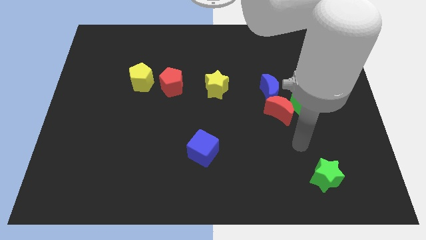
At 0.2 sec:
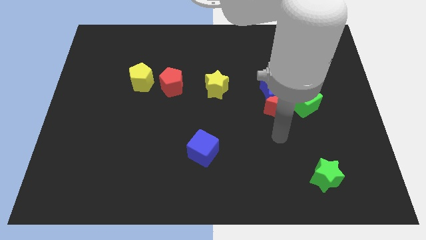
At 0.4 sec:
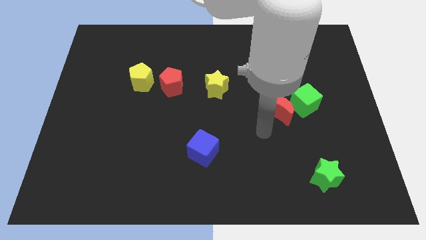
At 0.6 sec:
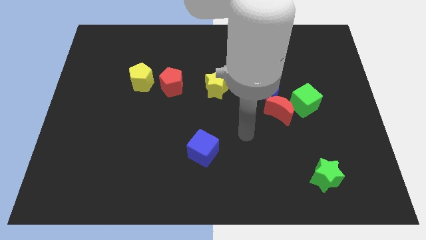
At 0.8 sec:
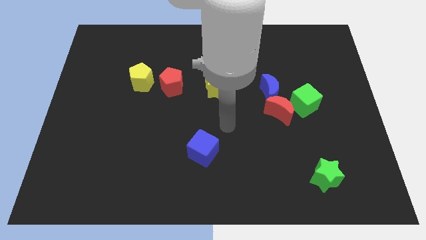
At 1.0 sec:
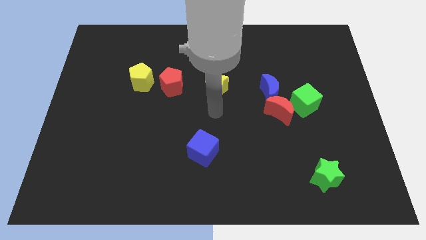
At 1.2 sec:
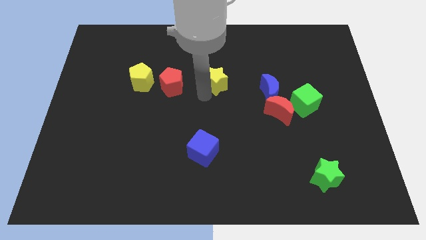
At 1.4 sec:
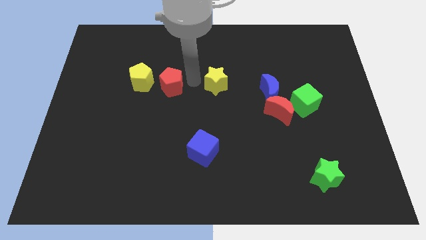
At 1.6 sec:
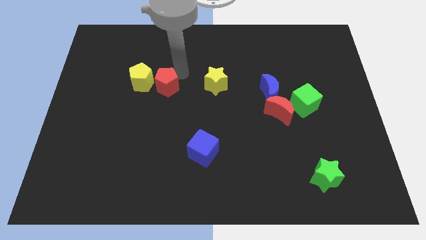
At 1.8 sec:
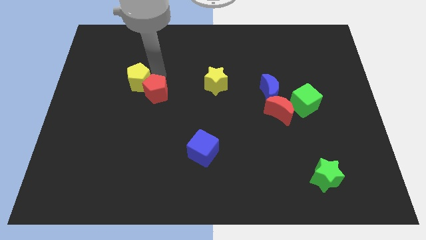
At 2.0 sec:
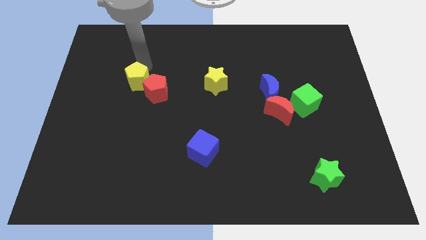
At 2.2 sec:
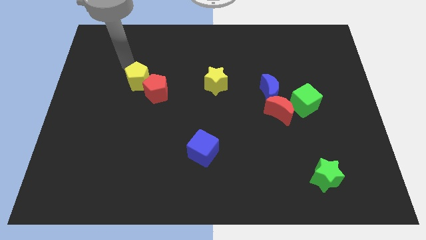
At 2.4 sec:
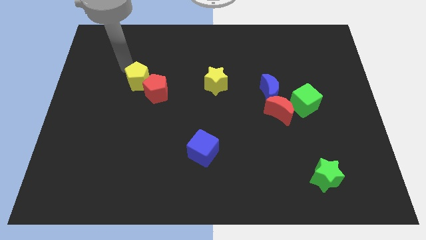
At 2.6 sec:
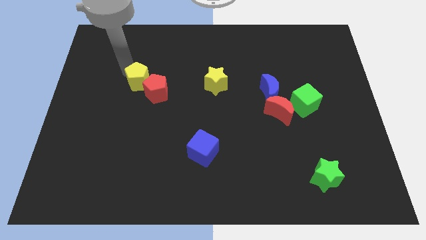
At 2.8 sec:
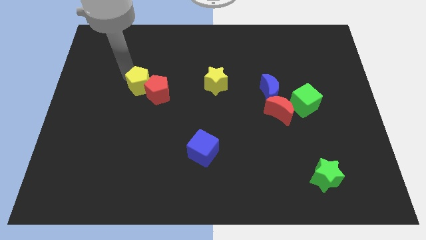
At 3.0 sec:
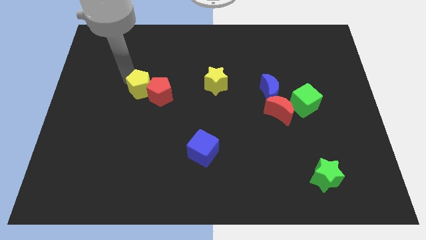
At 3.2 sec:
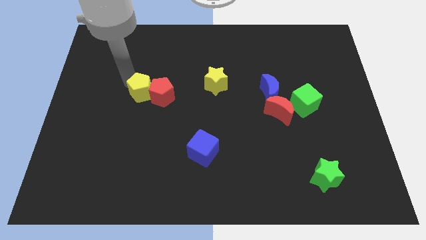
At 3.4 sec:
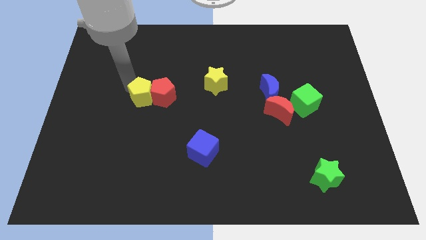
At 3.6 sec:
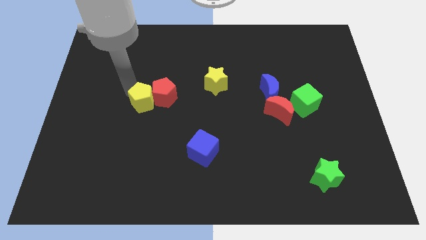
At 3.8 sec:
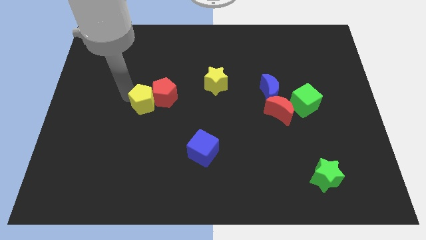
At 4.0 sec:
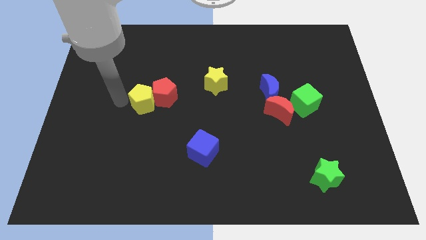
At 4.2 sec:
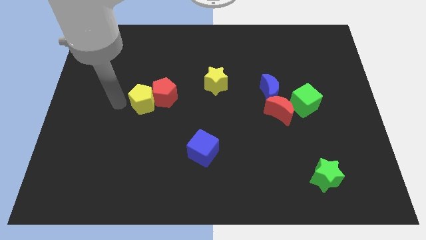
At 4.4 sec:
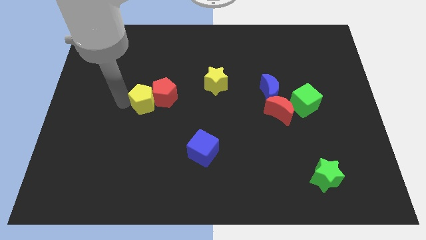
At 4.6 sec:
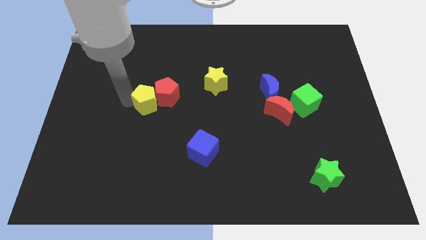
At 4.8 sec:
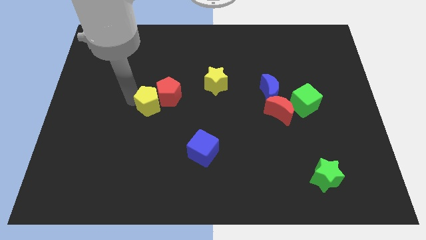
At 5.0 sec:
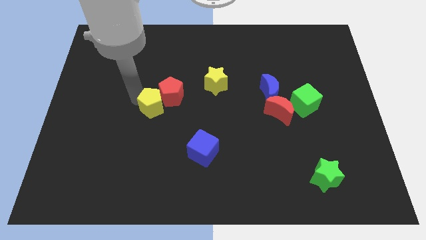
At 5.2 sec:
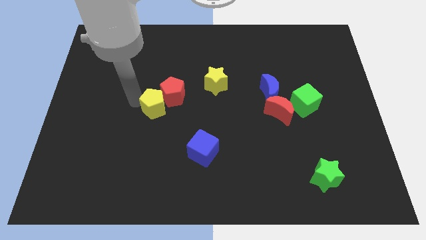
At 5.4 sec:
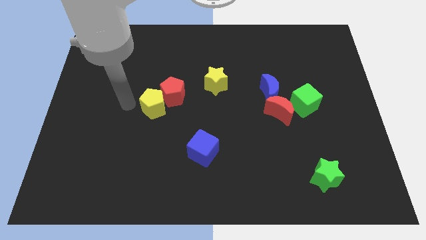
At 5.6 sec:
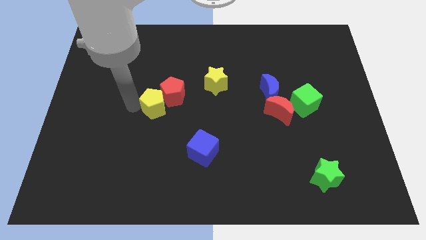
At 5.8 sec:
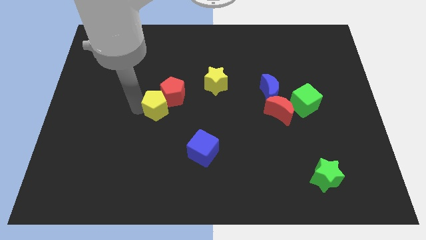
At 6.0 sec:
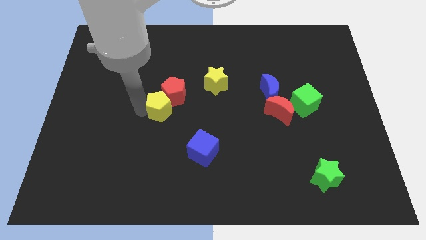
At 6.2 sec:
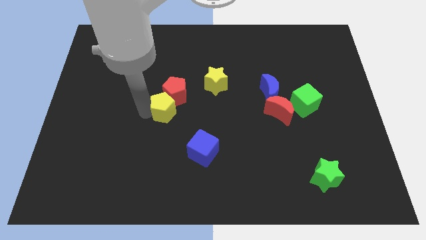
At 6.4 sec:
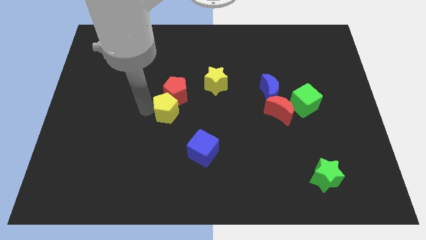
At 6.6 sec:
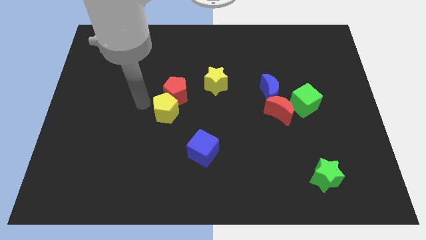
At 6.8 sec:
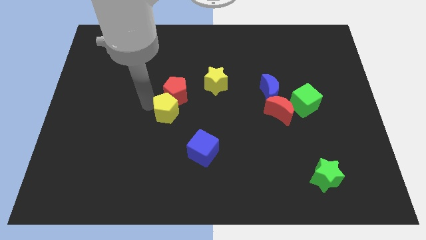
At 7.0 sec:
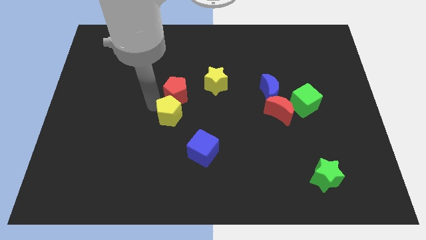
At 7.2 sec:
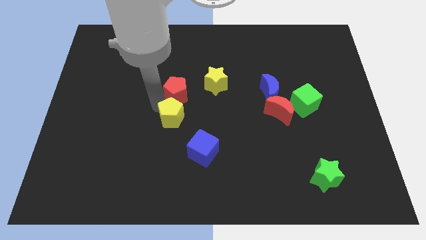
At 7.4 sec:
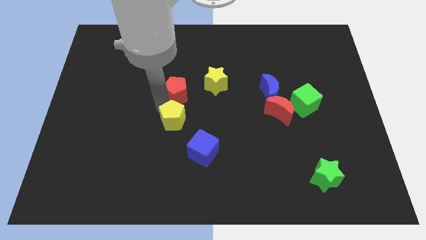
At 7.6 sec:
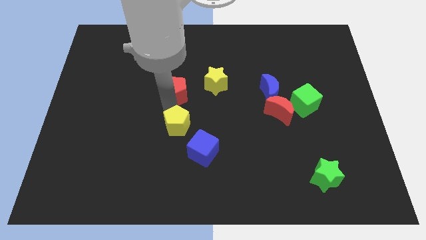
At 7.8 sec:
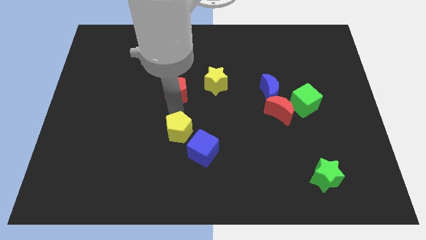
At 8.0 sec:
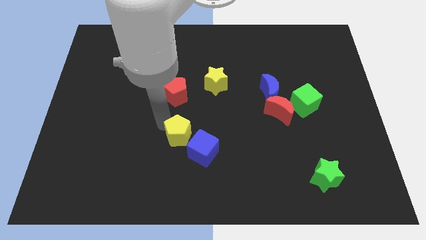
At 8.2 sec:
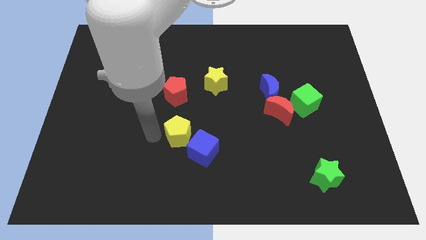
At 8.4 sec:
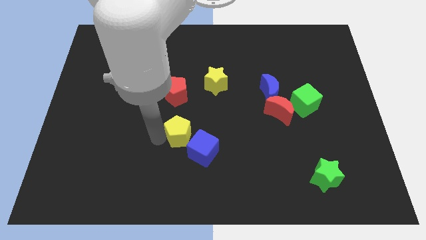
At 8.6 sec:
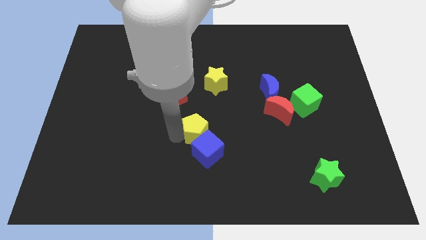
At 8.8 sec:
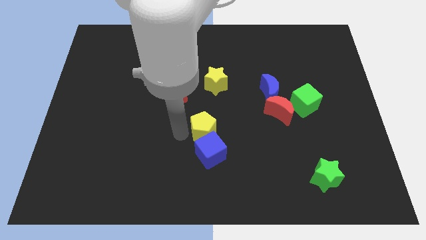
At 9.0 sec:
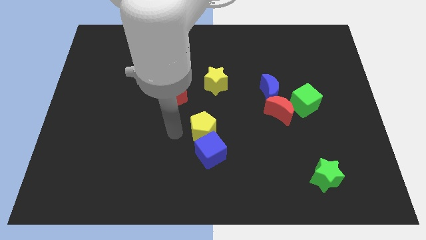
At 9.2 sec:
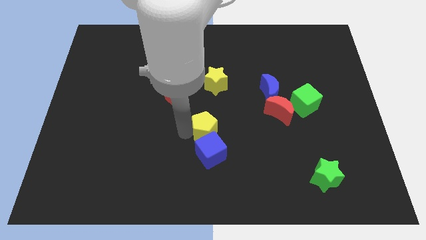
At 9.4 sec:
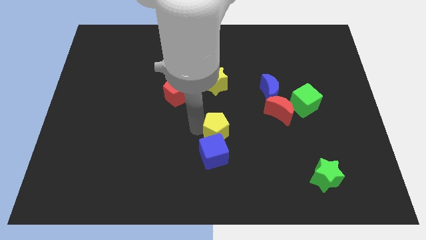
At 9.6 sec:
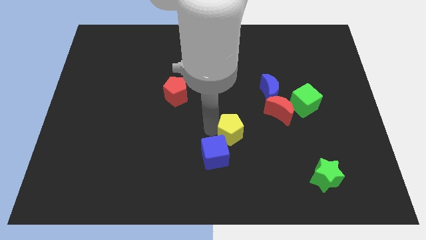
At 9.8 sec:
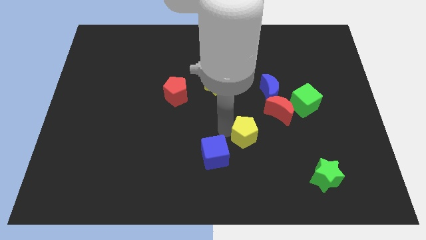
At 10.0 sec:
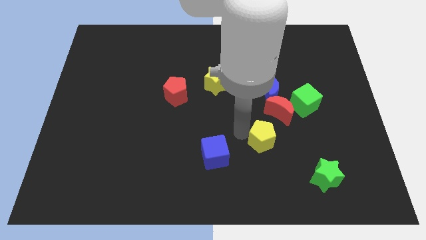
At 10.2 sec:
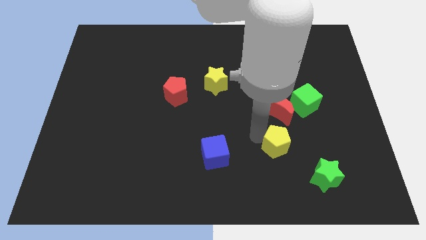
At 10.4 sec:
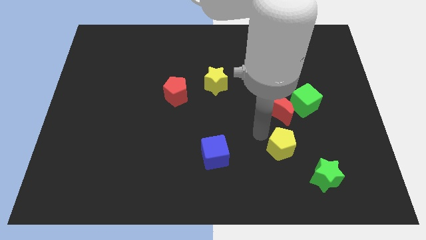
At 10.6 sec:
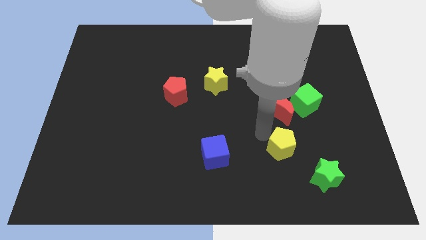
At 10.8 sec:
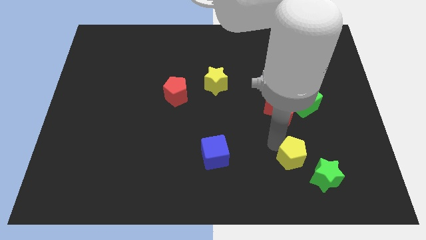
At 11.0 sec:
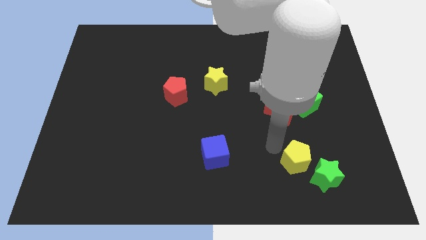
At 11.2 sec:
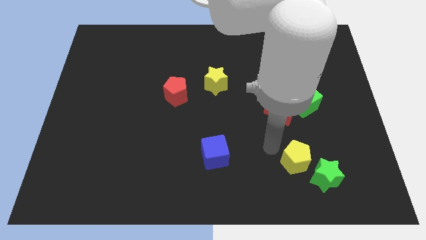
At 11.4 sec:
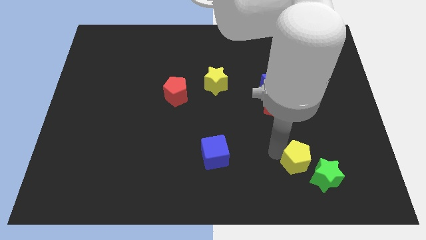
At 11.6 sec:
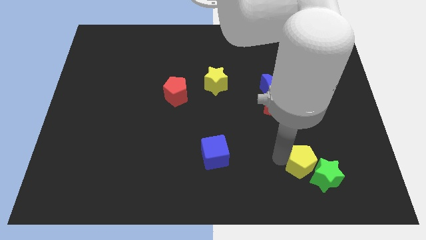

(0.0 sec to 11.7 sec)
put the yellow pentagon to the green star

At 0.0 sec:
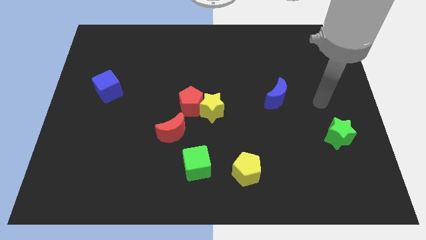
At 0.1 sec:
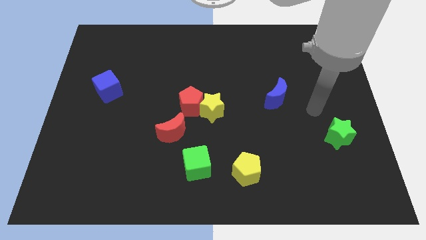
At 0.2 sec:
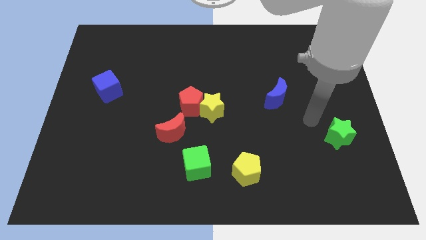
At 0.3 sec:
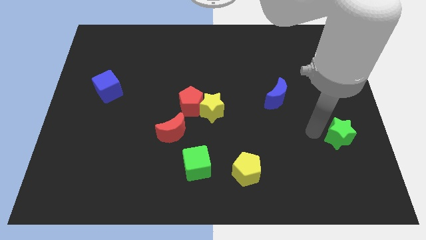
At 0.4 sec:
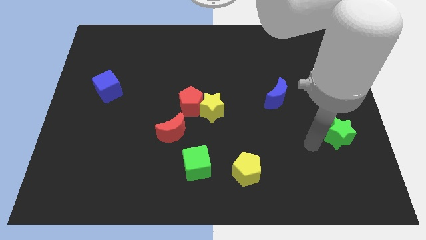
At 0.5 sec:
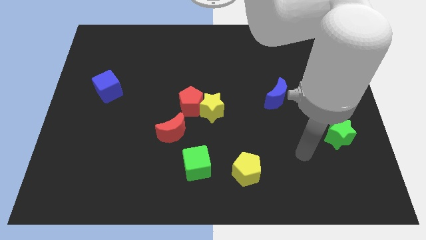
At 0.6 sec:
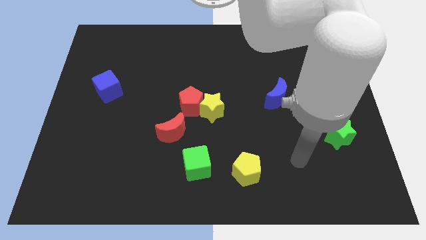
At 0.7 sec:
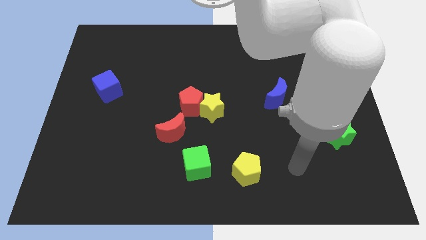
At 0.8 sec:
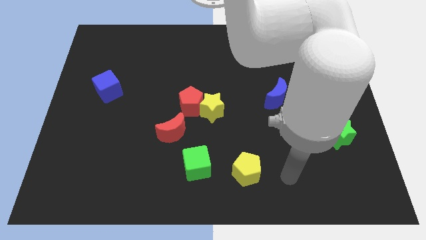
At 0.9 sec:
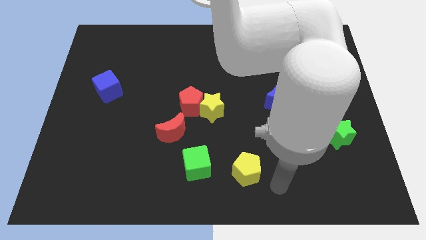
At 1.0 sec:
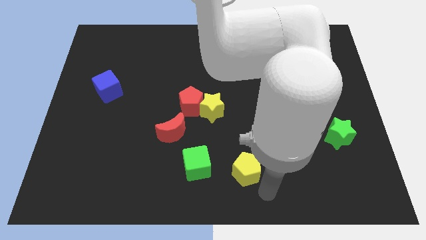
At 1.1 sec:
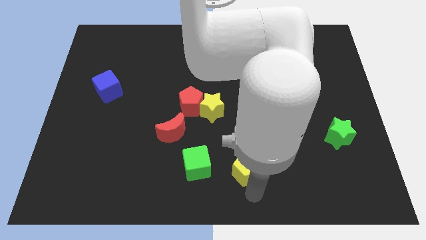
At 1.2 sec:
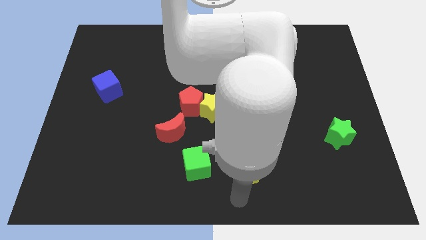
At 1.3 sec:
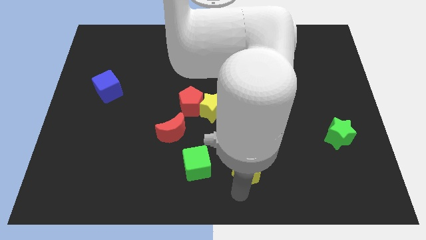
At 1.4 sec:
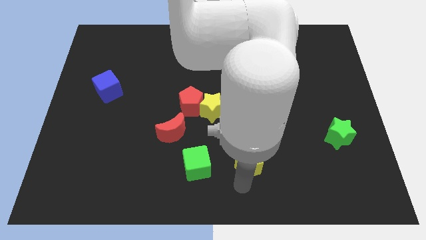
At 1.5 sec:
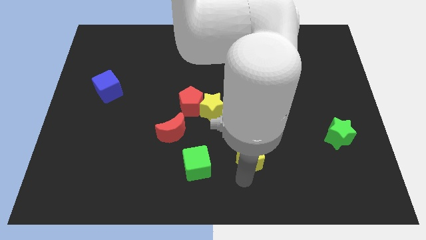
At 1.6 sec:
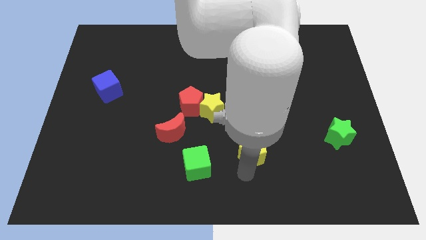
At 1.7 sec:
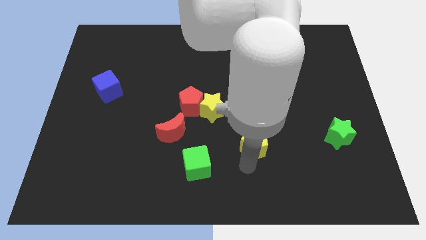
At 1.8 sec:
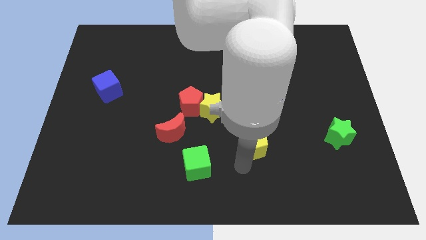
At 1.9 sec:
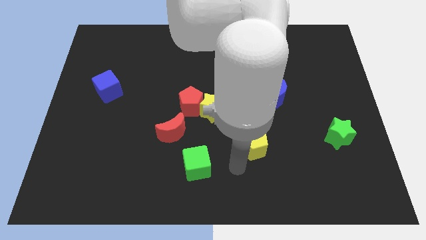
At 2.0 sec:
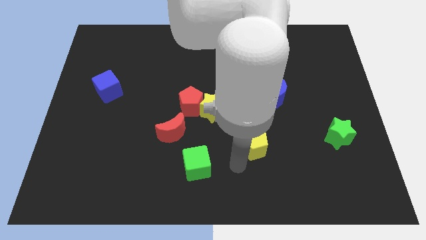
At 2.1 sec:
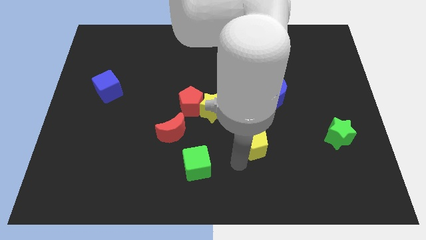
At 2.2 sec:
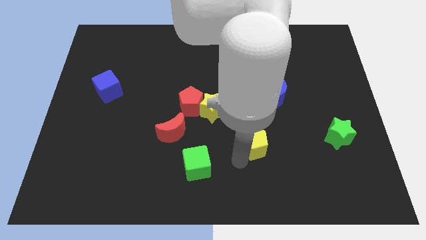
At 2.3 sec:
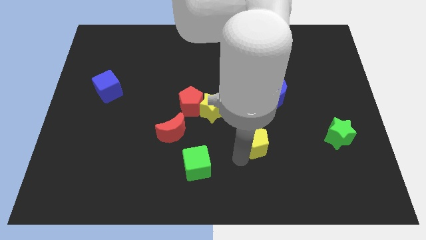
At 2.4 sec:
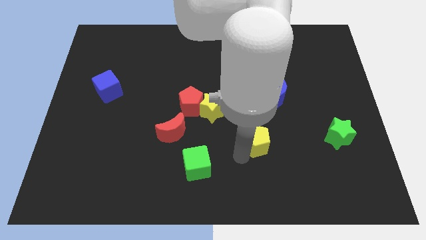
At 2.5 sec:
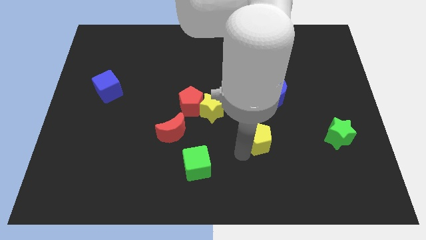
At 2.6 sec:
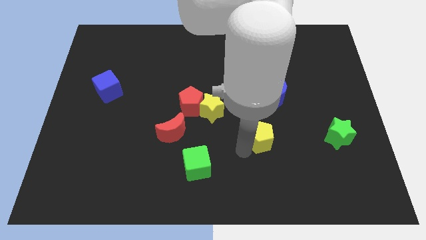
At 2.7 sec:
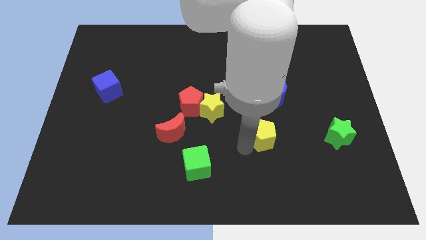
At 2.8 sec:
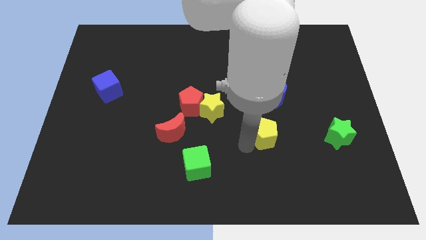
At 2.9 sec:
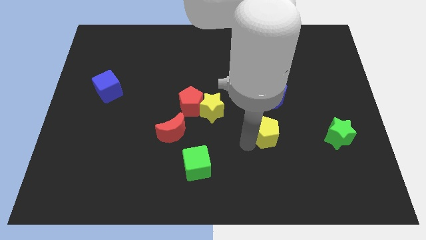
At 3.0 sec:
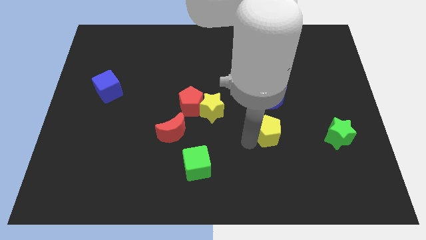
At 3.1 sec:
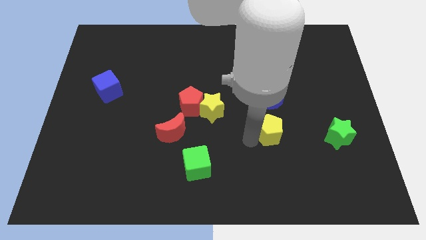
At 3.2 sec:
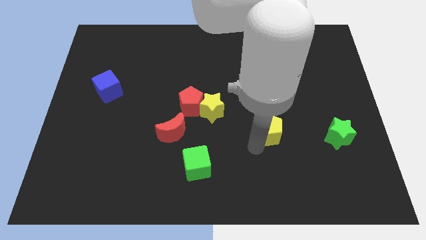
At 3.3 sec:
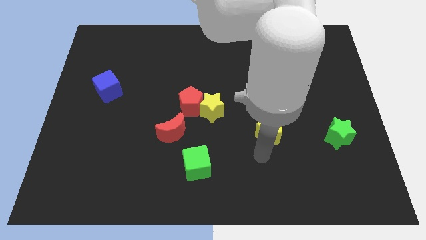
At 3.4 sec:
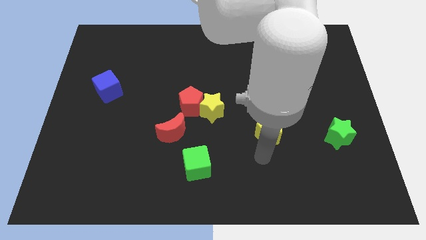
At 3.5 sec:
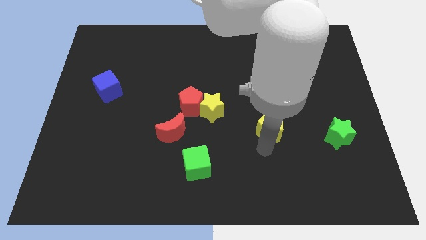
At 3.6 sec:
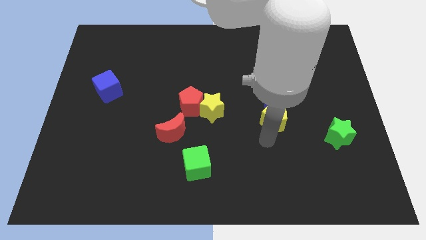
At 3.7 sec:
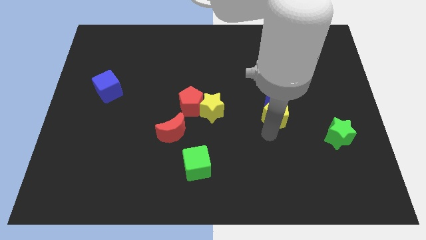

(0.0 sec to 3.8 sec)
move the yellow pentagon close to the blue moon
